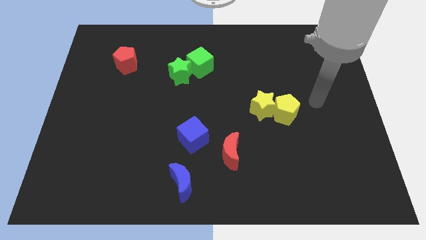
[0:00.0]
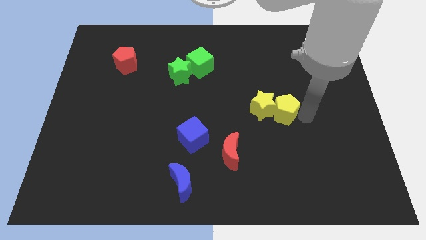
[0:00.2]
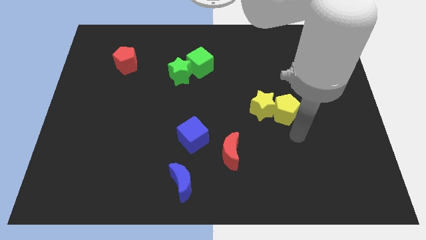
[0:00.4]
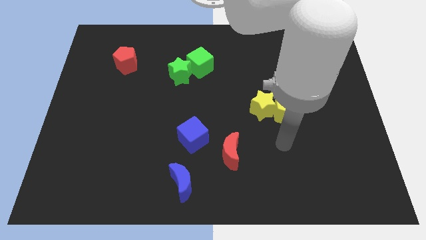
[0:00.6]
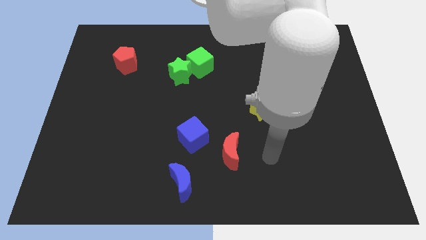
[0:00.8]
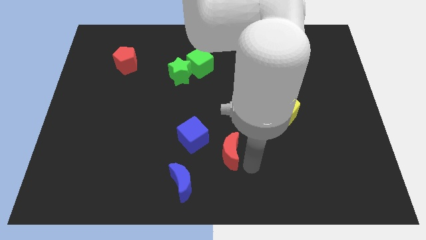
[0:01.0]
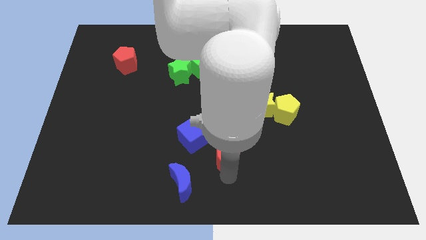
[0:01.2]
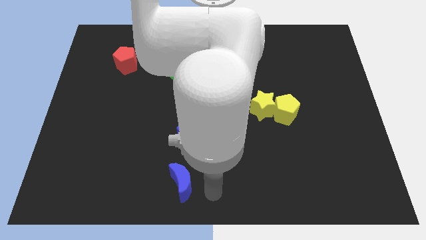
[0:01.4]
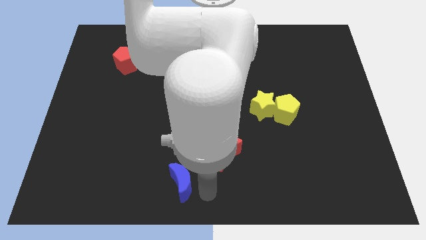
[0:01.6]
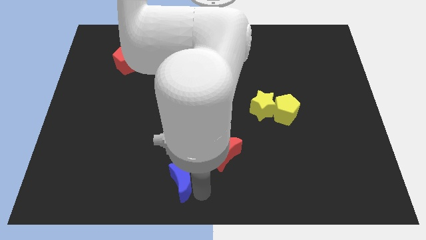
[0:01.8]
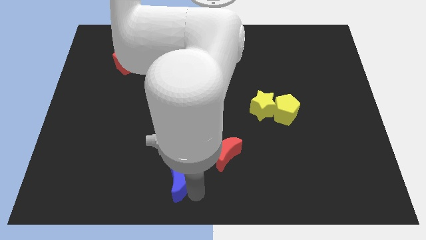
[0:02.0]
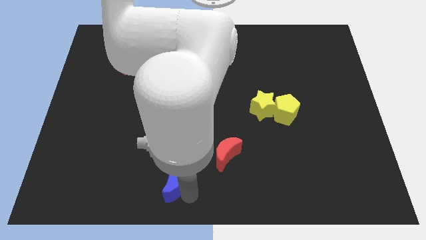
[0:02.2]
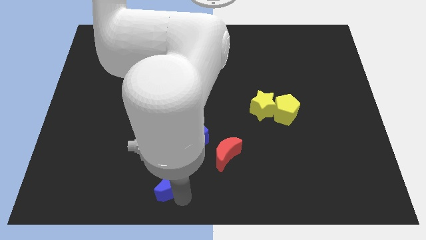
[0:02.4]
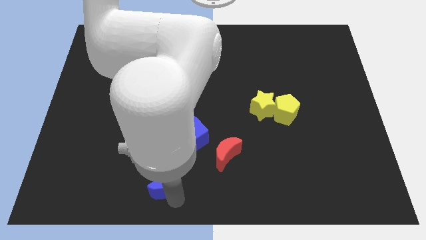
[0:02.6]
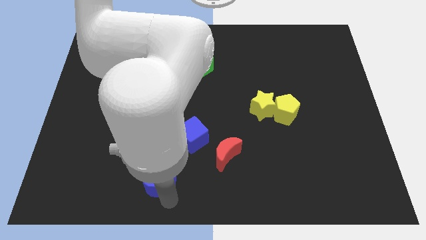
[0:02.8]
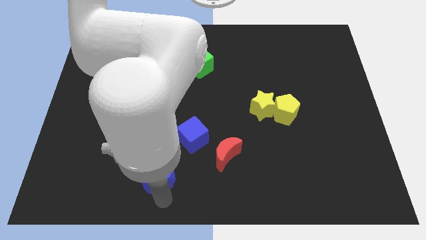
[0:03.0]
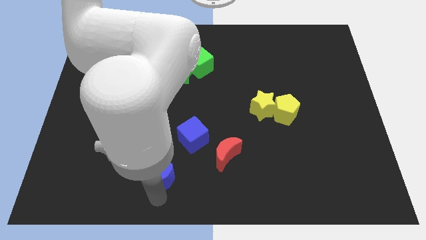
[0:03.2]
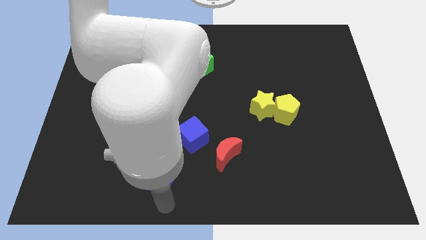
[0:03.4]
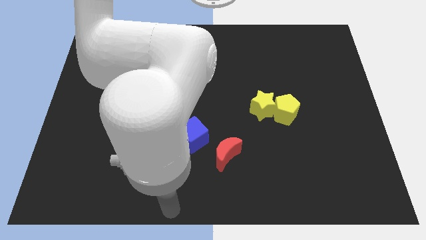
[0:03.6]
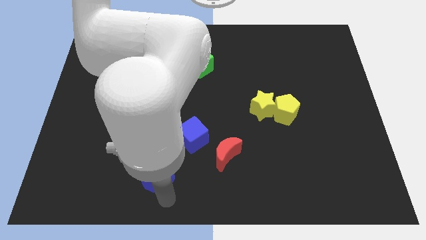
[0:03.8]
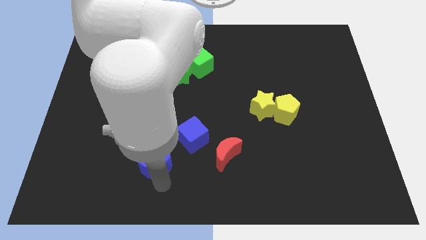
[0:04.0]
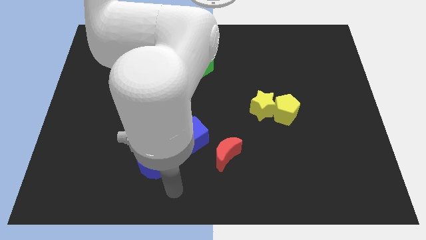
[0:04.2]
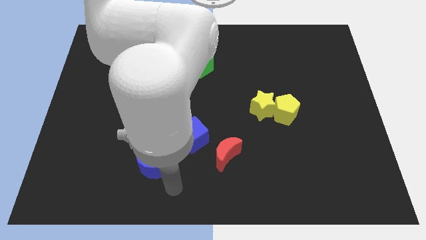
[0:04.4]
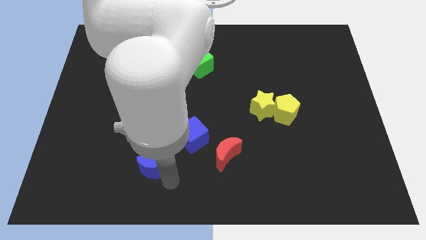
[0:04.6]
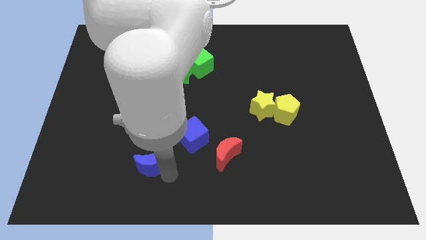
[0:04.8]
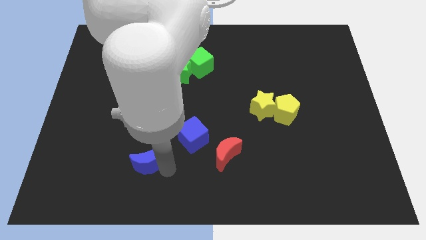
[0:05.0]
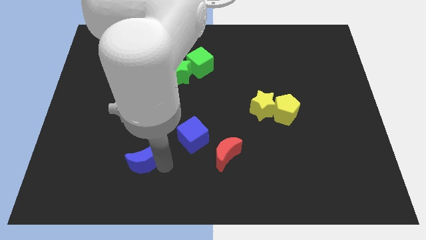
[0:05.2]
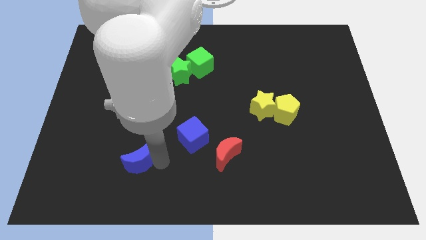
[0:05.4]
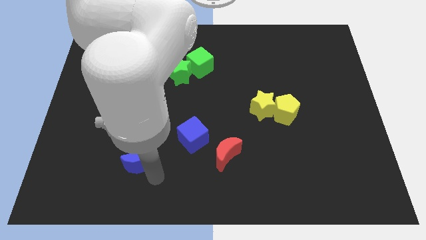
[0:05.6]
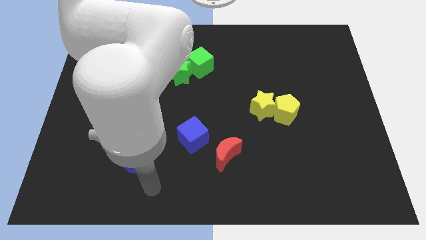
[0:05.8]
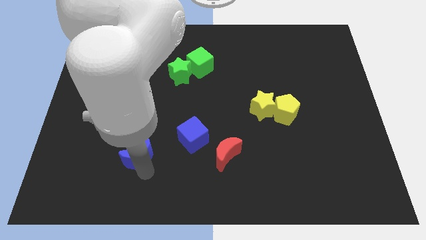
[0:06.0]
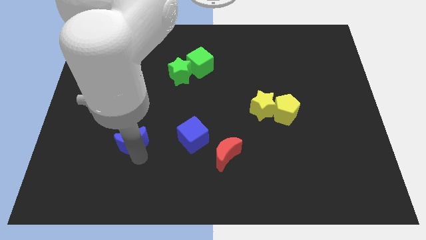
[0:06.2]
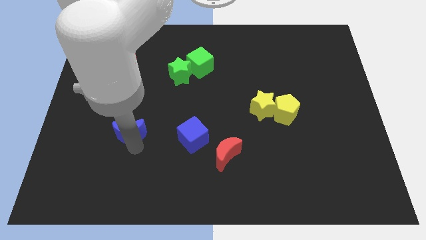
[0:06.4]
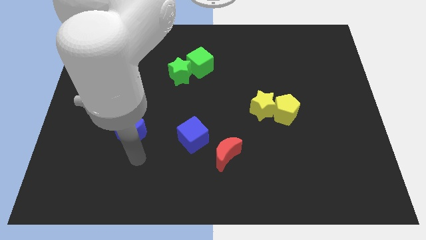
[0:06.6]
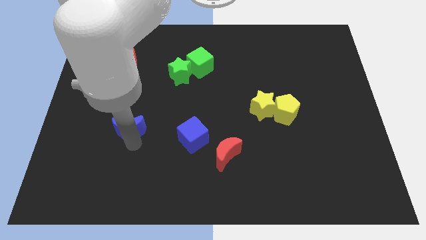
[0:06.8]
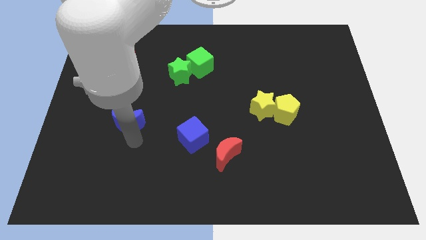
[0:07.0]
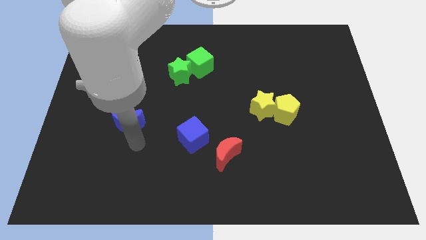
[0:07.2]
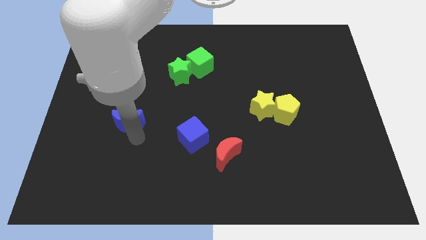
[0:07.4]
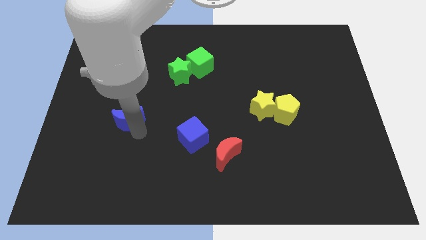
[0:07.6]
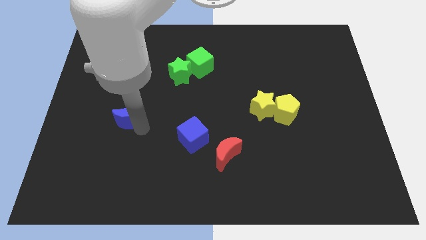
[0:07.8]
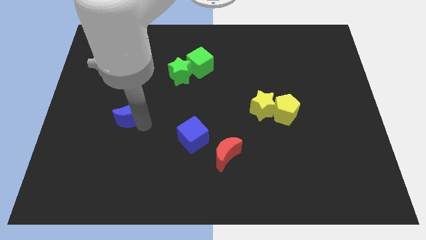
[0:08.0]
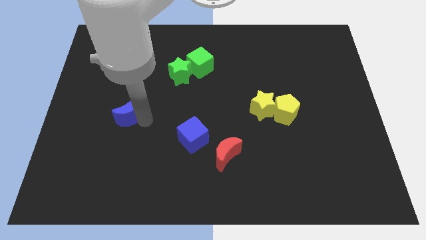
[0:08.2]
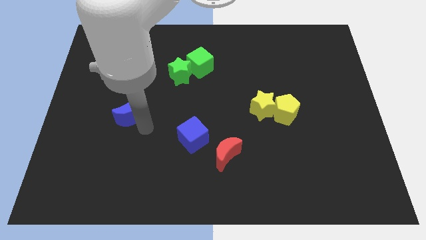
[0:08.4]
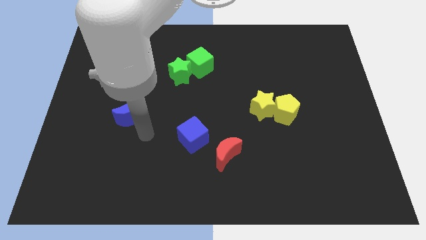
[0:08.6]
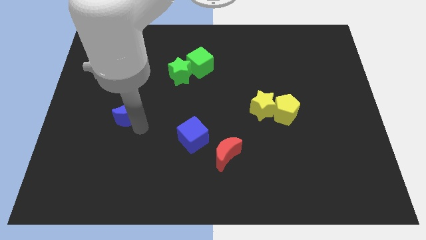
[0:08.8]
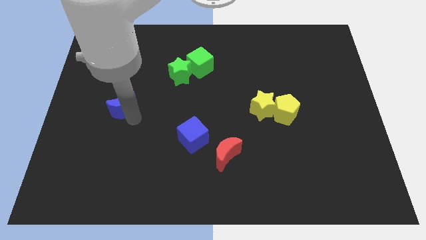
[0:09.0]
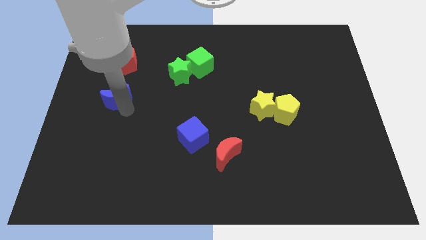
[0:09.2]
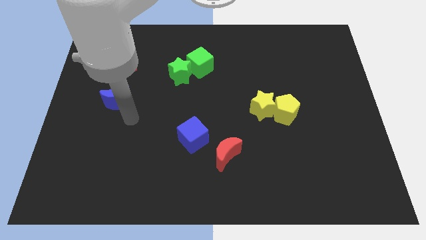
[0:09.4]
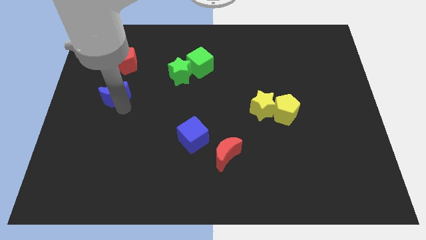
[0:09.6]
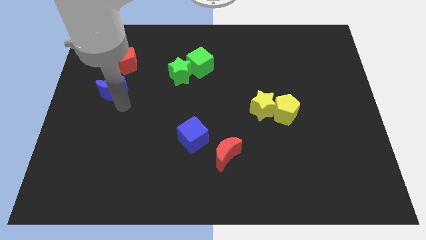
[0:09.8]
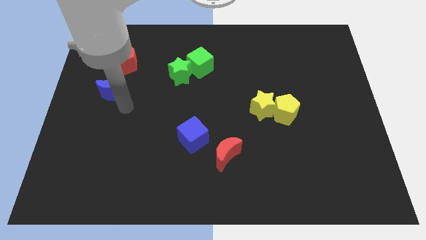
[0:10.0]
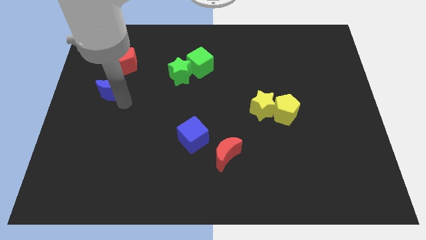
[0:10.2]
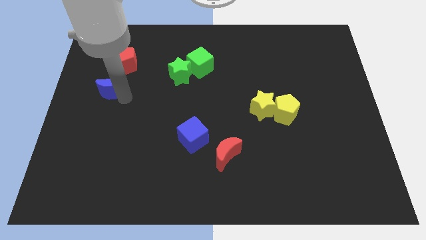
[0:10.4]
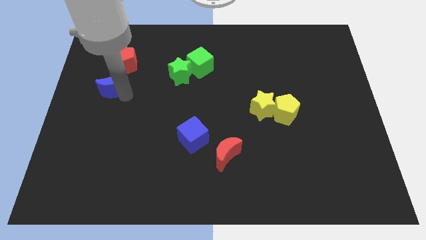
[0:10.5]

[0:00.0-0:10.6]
put the blue moon to the bottom left side of the red pentagon

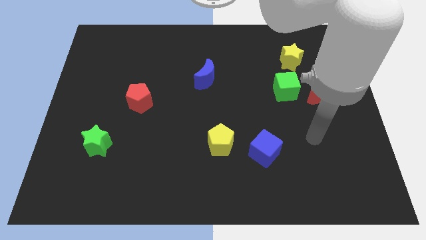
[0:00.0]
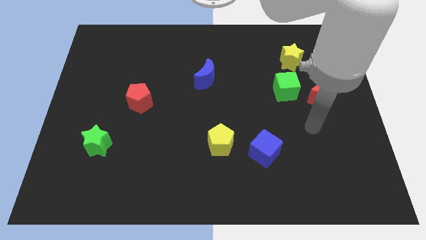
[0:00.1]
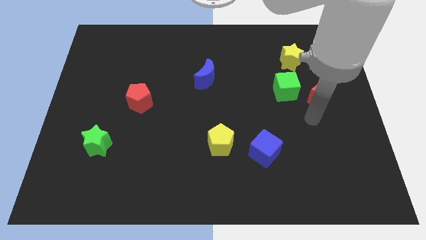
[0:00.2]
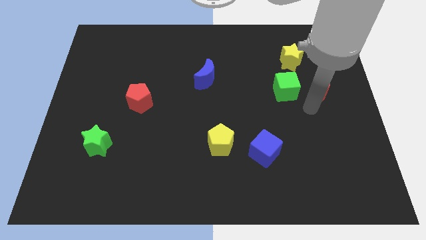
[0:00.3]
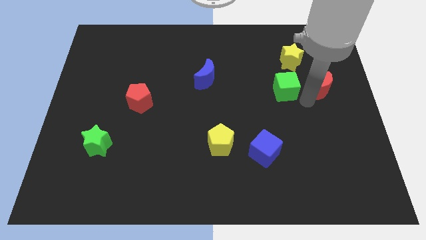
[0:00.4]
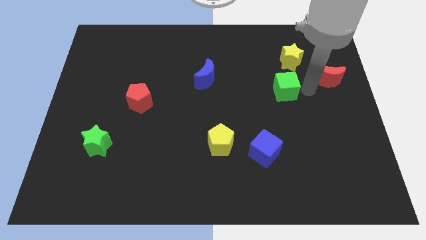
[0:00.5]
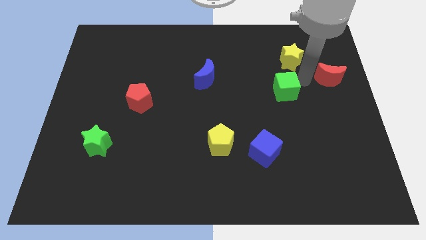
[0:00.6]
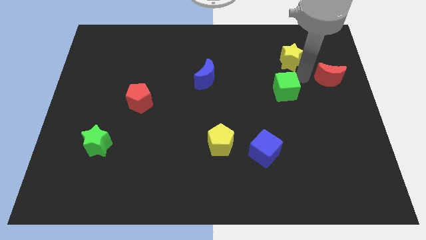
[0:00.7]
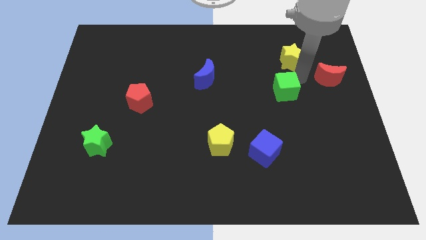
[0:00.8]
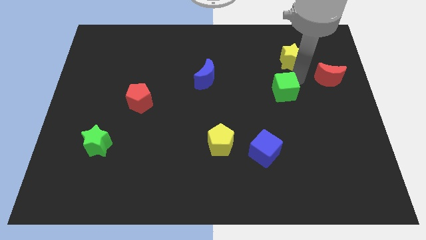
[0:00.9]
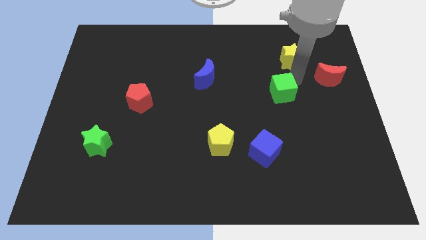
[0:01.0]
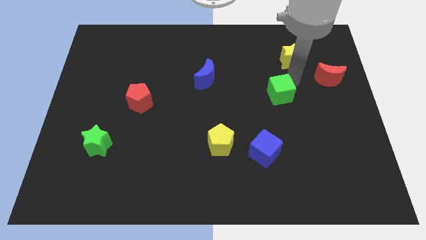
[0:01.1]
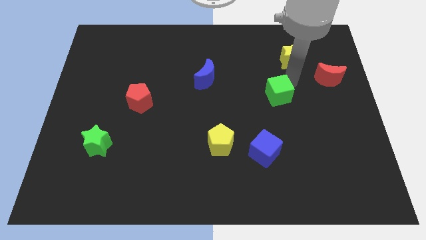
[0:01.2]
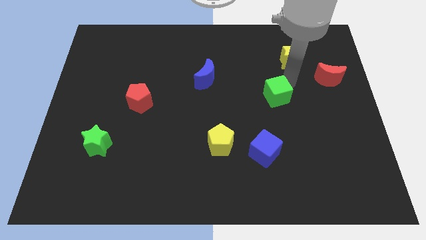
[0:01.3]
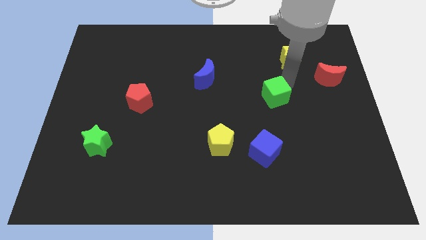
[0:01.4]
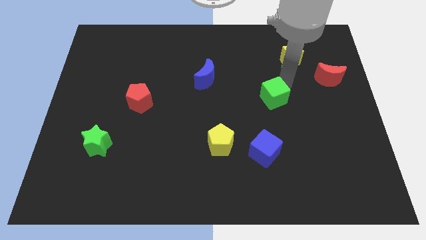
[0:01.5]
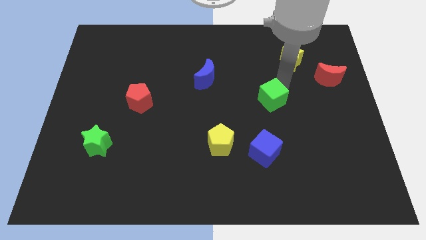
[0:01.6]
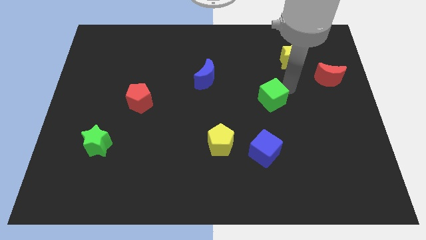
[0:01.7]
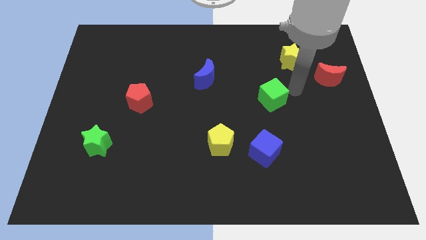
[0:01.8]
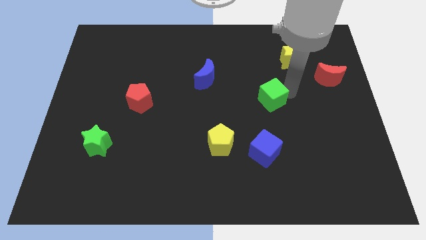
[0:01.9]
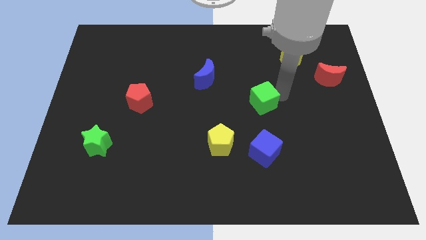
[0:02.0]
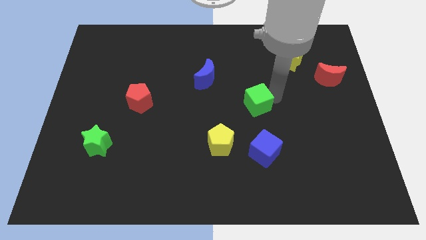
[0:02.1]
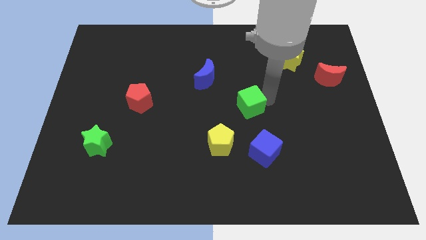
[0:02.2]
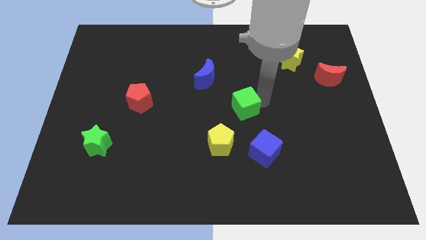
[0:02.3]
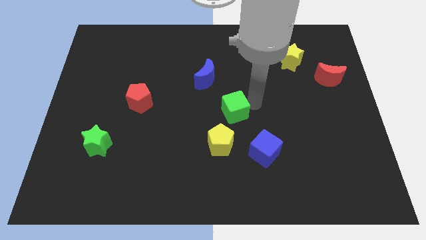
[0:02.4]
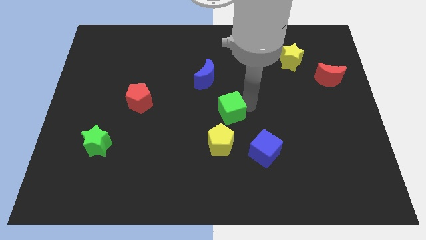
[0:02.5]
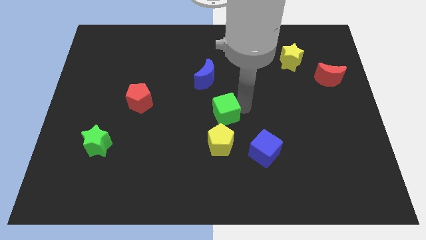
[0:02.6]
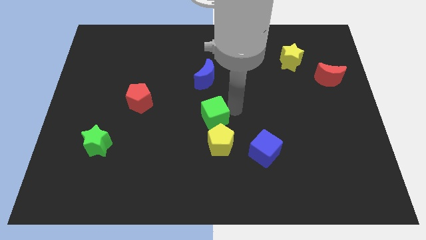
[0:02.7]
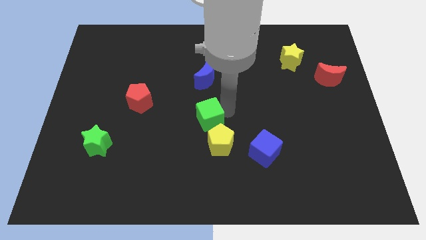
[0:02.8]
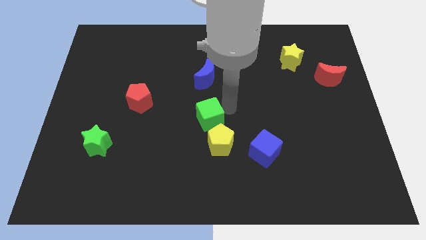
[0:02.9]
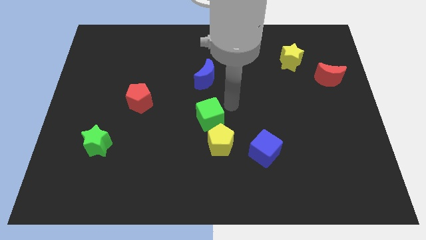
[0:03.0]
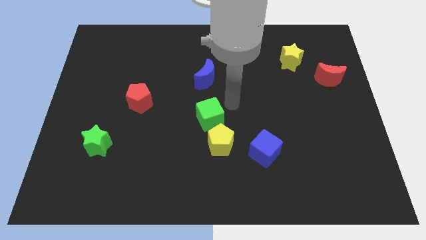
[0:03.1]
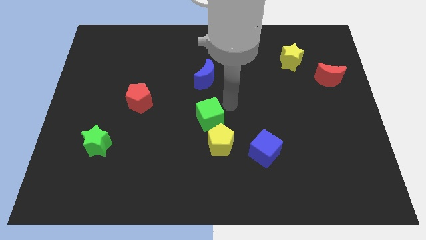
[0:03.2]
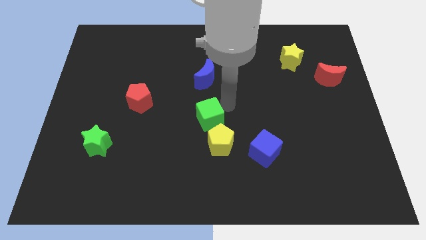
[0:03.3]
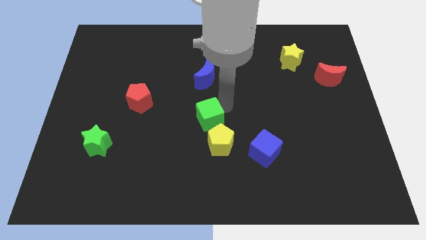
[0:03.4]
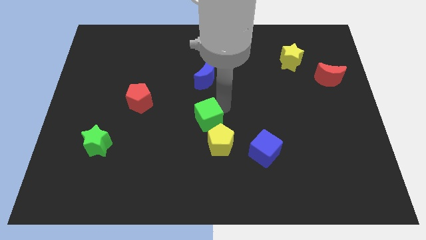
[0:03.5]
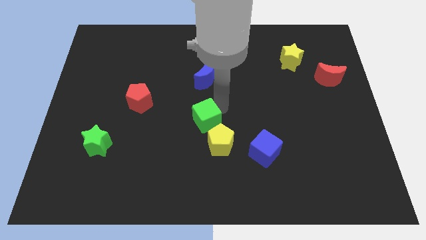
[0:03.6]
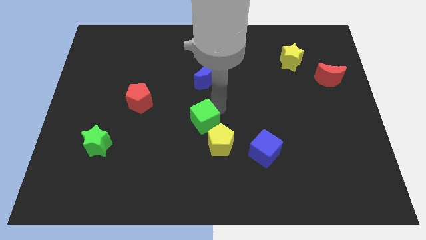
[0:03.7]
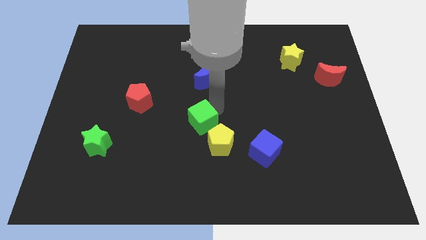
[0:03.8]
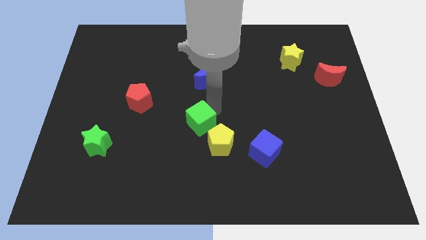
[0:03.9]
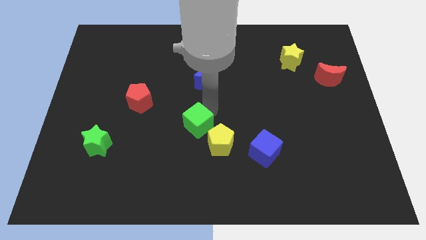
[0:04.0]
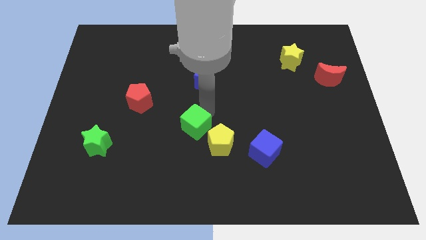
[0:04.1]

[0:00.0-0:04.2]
push the green cube to the left side of the yellow pentagon
